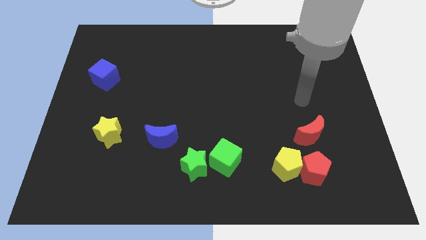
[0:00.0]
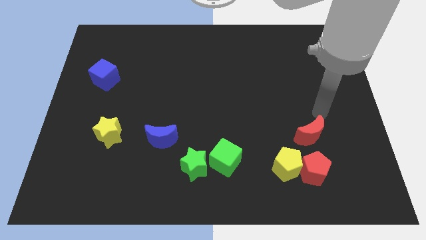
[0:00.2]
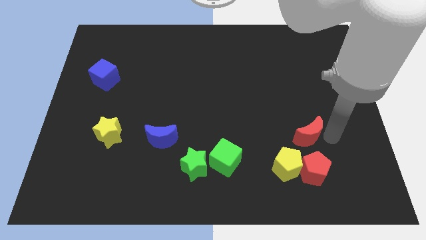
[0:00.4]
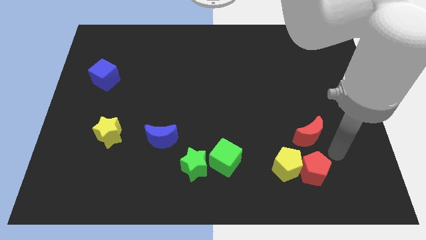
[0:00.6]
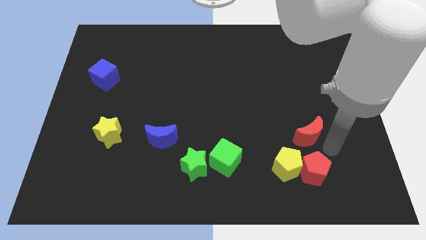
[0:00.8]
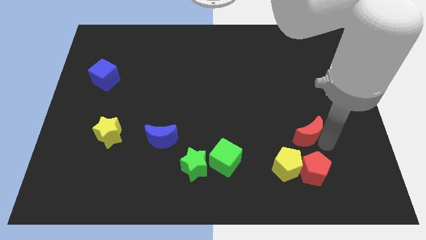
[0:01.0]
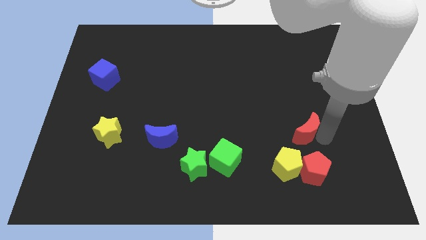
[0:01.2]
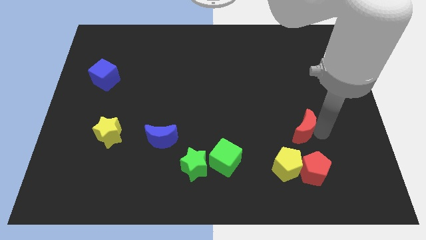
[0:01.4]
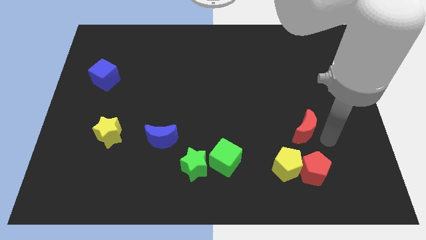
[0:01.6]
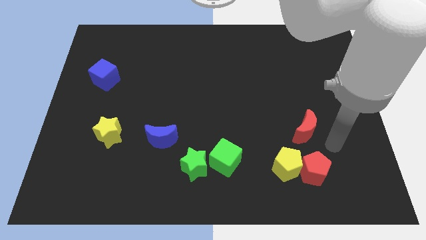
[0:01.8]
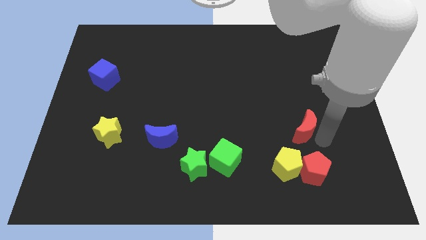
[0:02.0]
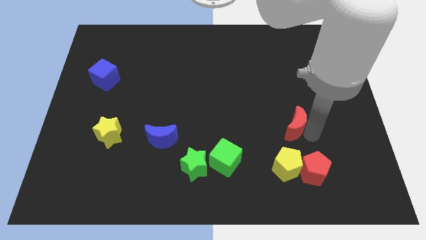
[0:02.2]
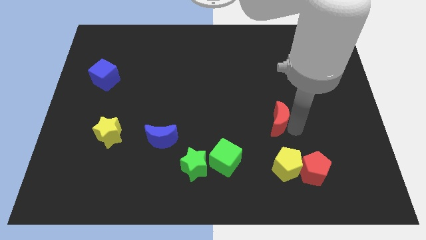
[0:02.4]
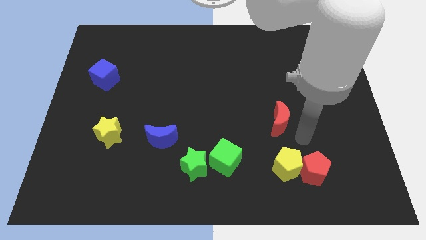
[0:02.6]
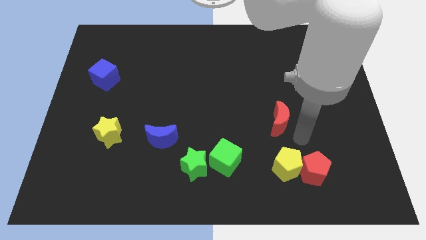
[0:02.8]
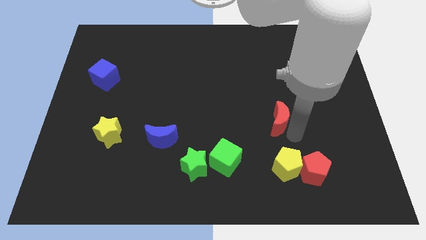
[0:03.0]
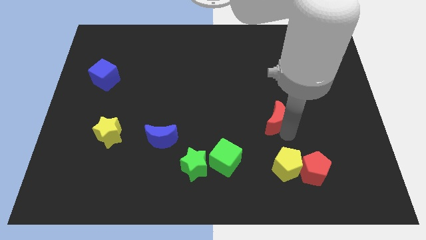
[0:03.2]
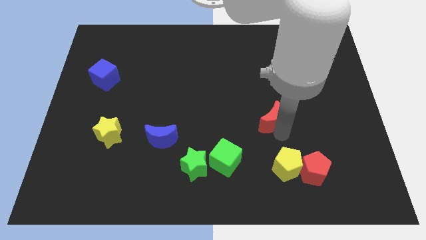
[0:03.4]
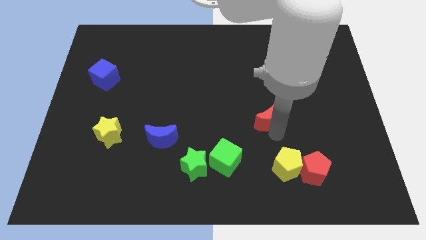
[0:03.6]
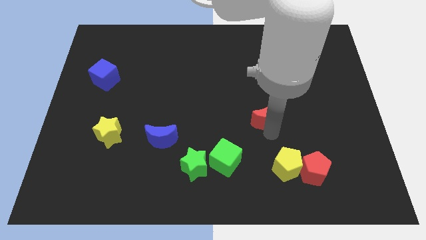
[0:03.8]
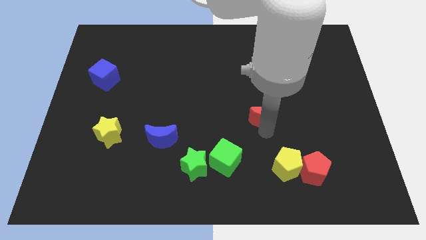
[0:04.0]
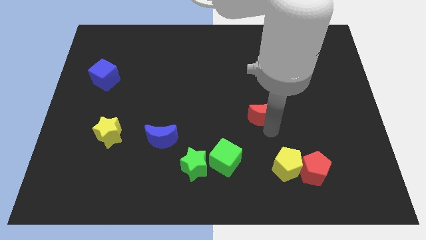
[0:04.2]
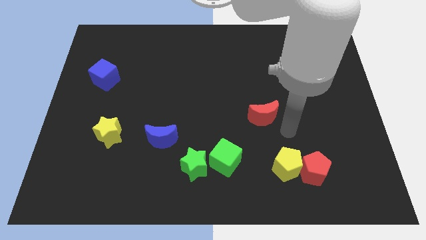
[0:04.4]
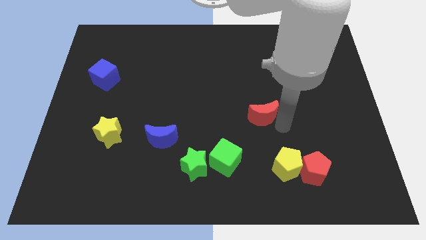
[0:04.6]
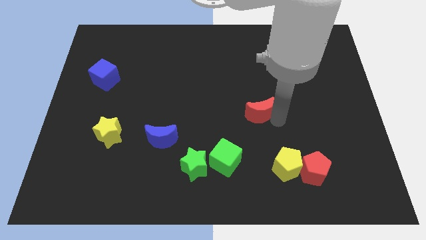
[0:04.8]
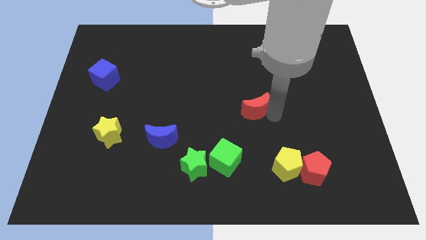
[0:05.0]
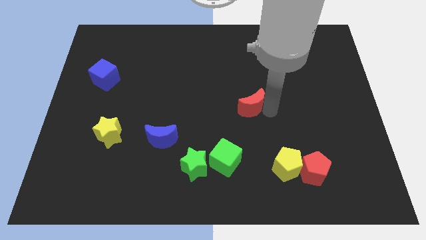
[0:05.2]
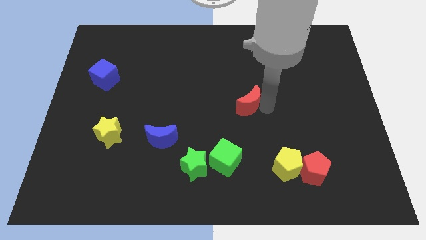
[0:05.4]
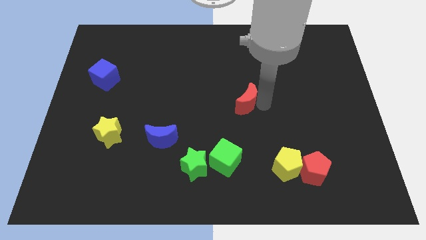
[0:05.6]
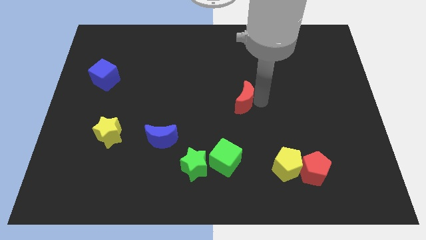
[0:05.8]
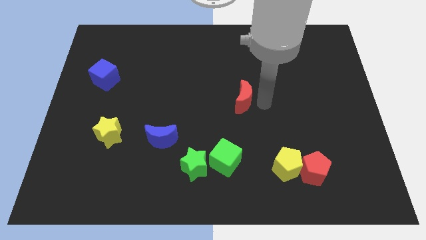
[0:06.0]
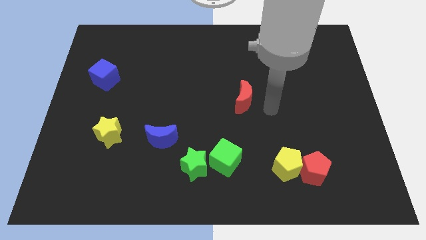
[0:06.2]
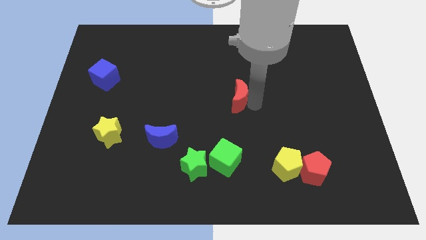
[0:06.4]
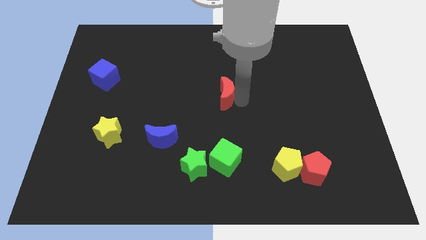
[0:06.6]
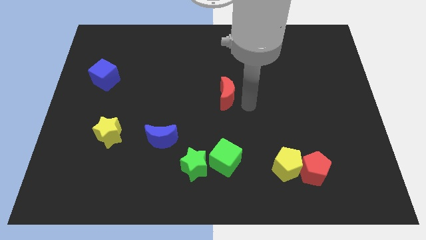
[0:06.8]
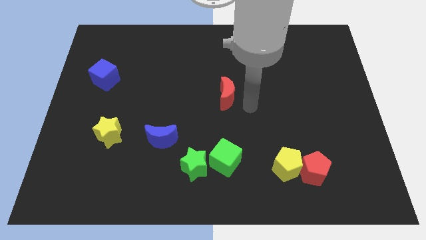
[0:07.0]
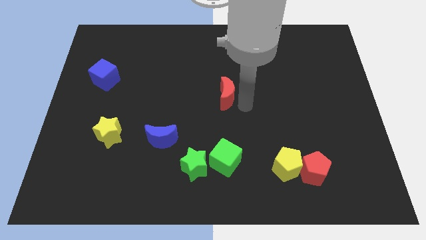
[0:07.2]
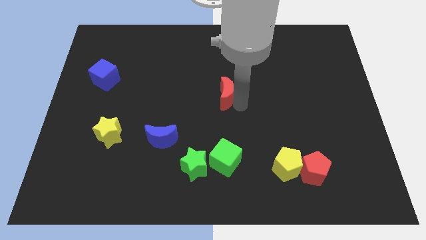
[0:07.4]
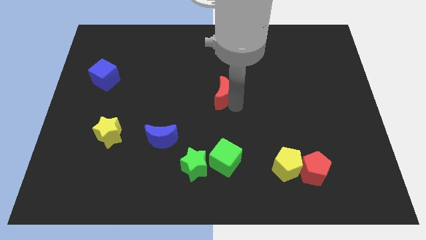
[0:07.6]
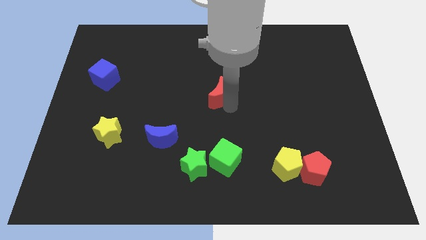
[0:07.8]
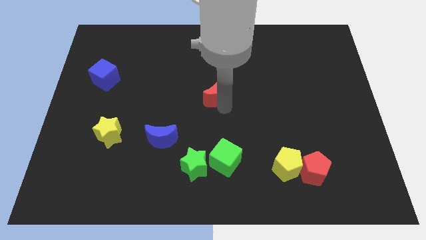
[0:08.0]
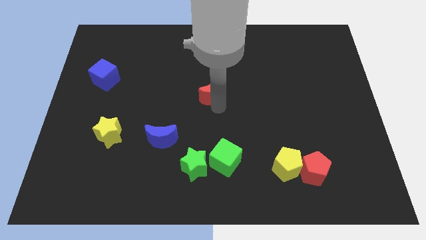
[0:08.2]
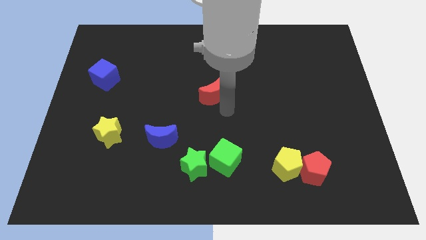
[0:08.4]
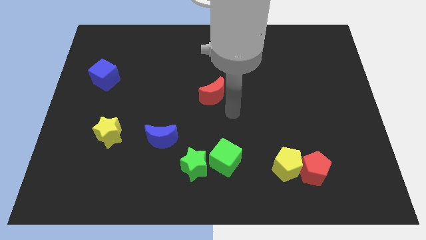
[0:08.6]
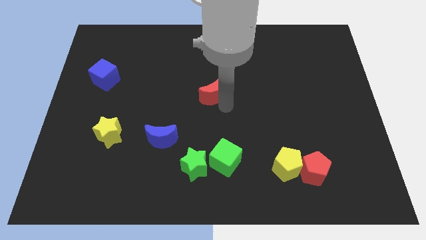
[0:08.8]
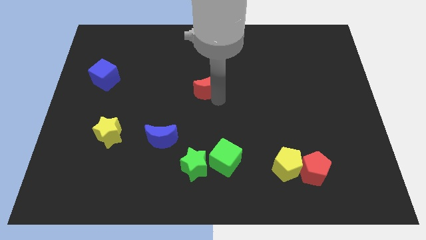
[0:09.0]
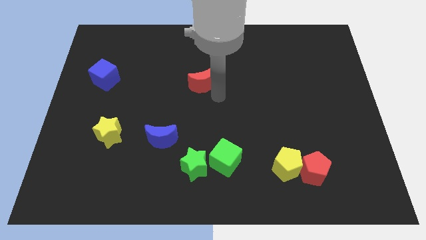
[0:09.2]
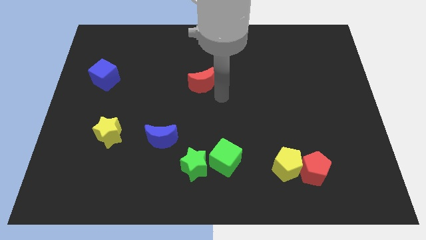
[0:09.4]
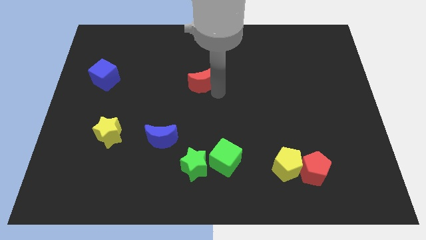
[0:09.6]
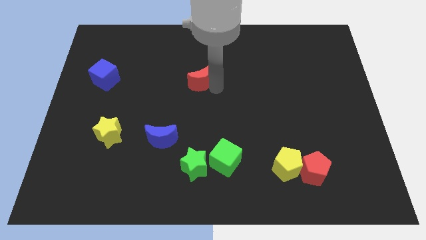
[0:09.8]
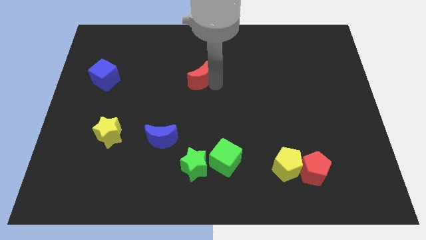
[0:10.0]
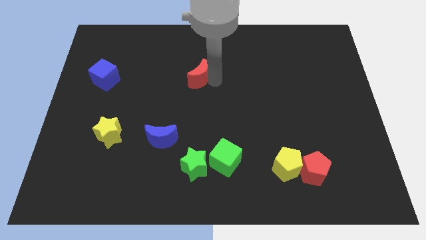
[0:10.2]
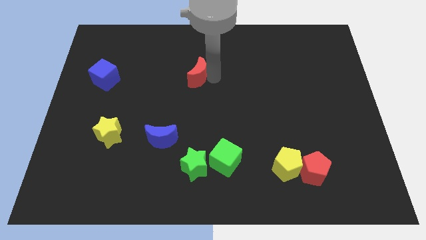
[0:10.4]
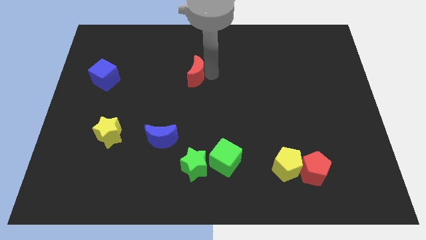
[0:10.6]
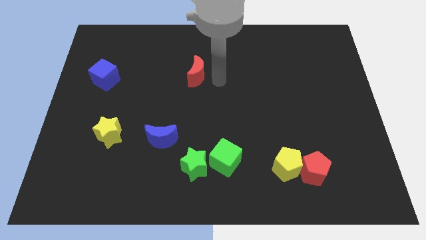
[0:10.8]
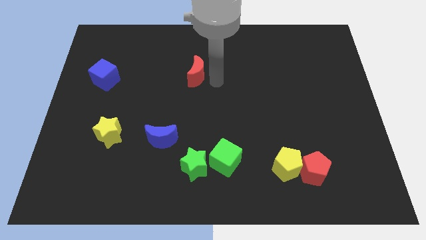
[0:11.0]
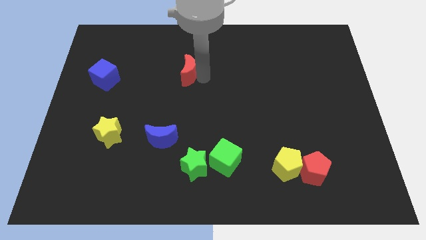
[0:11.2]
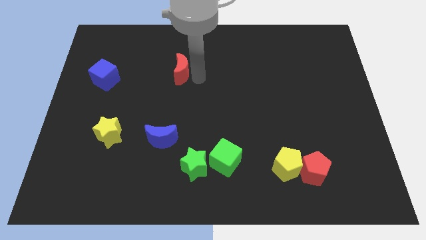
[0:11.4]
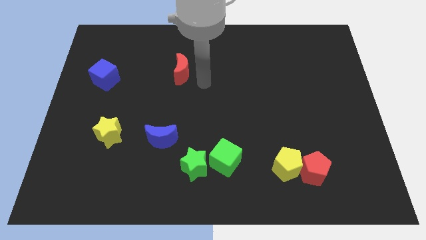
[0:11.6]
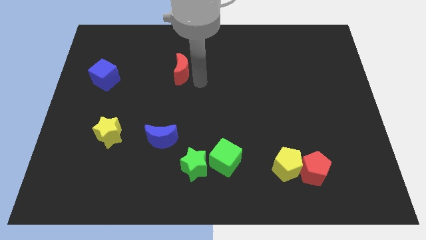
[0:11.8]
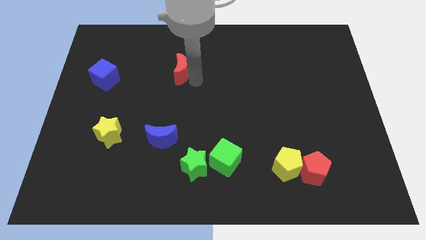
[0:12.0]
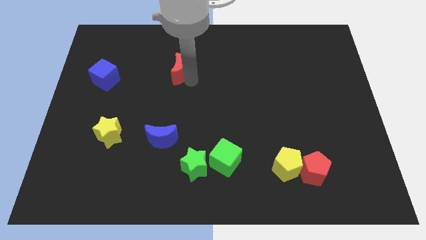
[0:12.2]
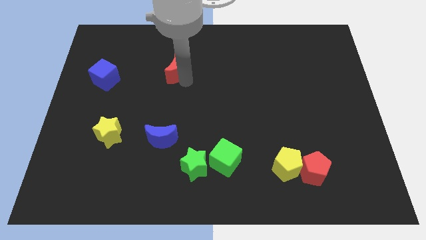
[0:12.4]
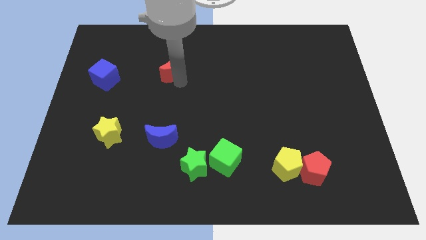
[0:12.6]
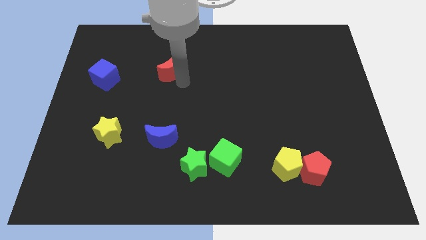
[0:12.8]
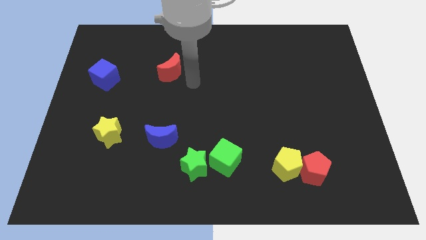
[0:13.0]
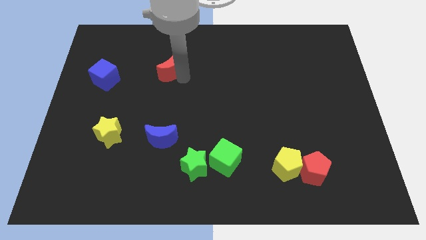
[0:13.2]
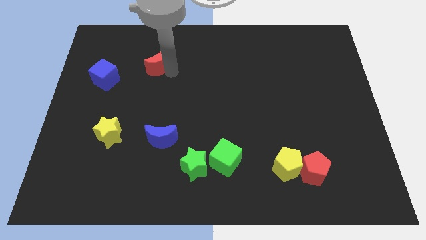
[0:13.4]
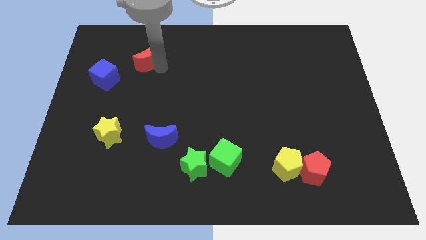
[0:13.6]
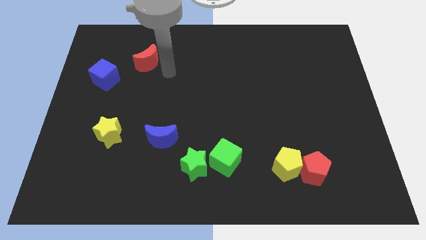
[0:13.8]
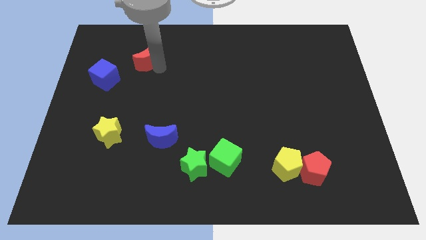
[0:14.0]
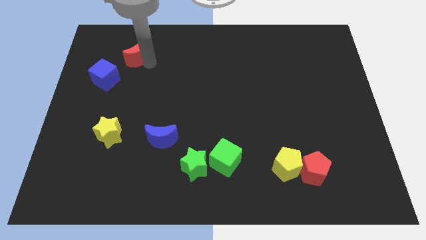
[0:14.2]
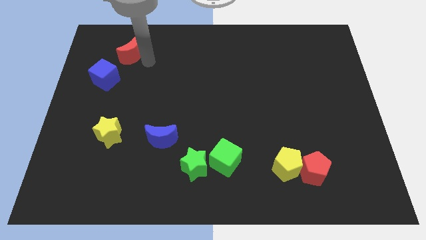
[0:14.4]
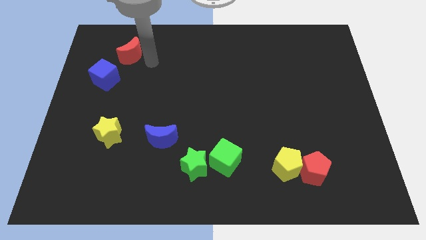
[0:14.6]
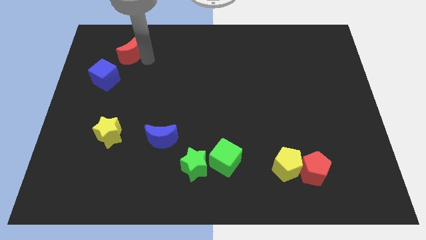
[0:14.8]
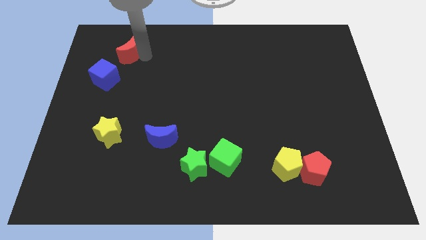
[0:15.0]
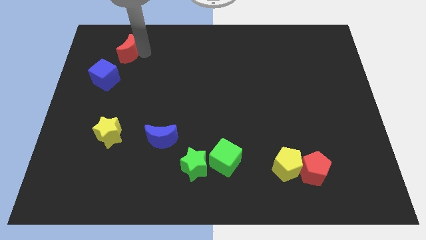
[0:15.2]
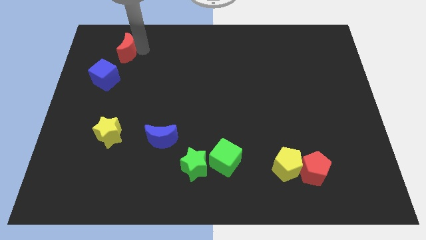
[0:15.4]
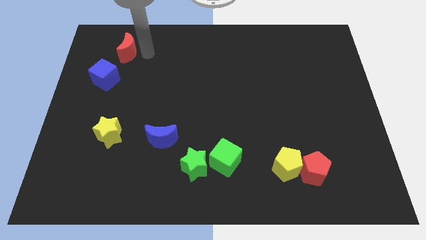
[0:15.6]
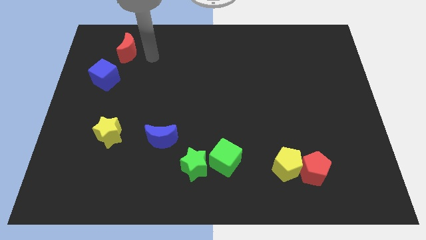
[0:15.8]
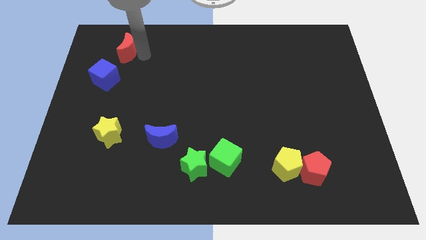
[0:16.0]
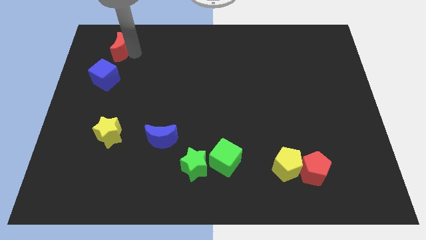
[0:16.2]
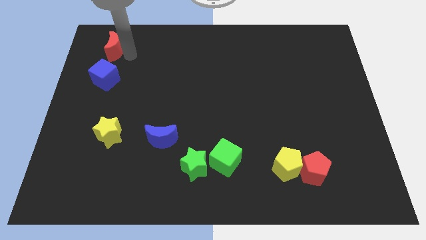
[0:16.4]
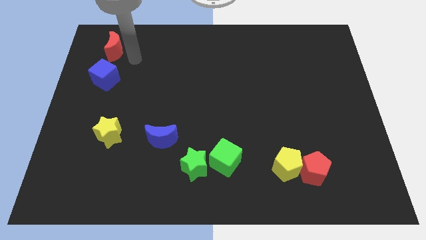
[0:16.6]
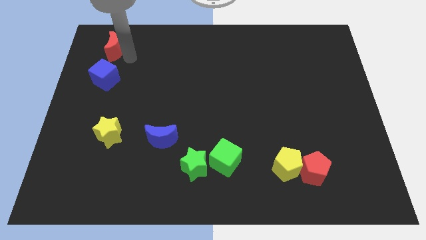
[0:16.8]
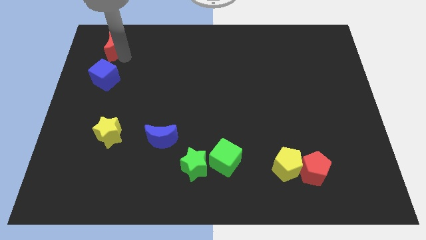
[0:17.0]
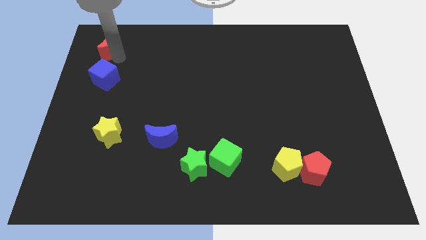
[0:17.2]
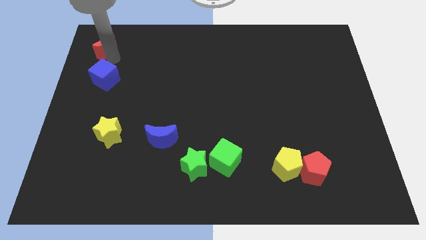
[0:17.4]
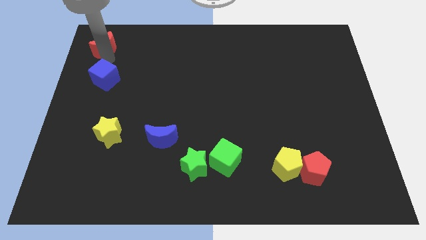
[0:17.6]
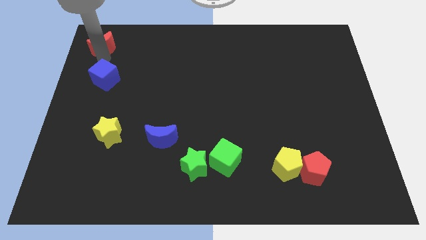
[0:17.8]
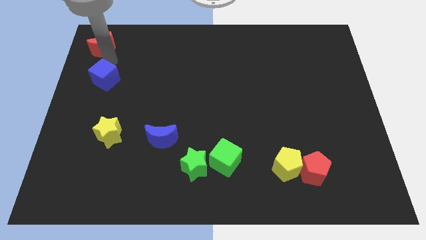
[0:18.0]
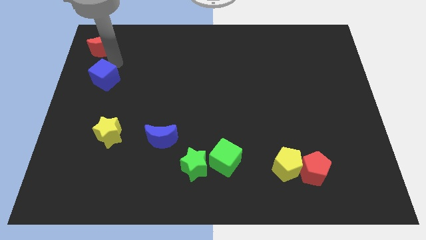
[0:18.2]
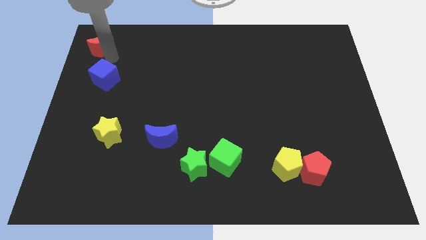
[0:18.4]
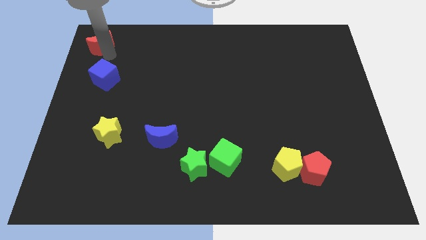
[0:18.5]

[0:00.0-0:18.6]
move the red moon to the top left corner
